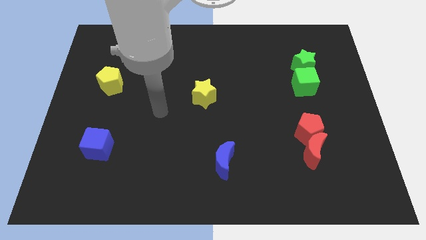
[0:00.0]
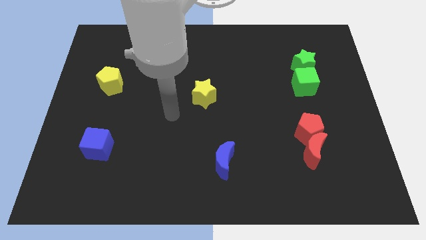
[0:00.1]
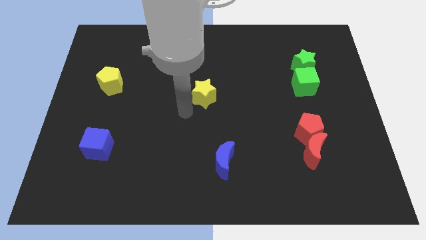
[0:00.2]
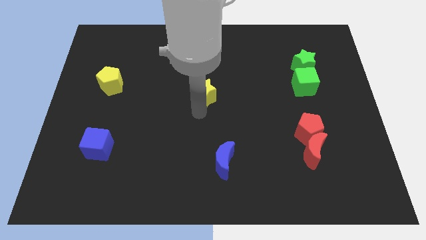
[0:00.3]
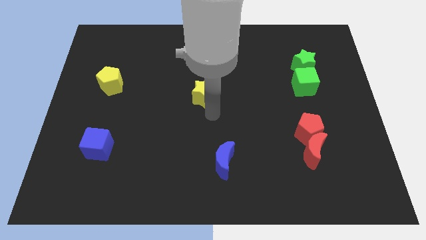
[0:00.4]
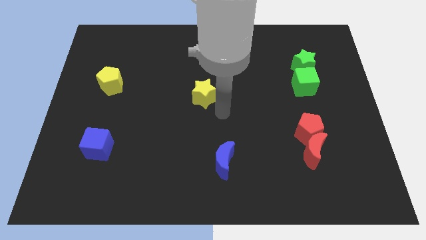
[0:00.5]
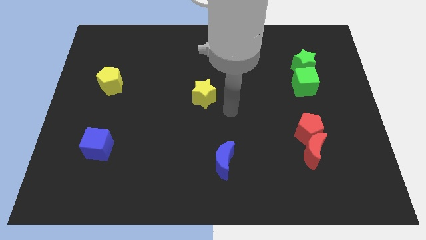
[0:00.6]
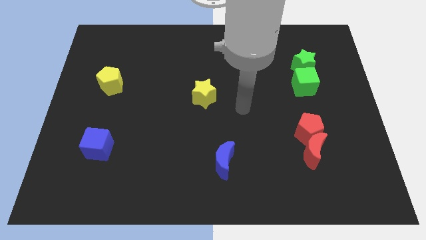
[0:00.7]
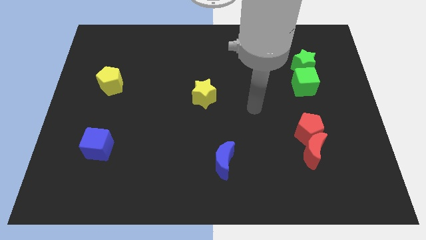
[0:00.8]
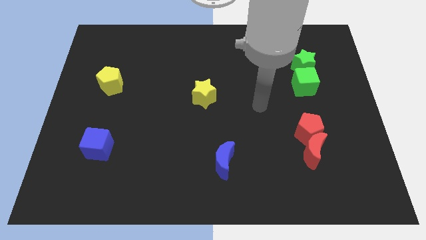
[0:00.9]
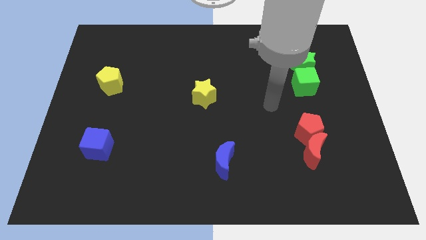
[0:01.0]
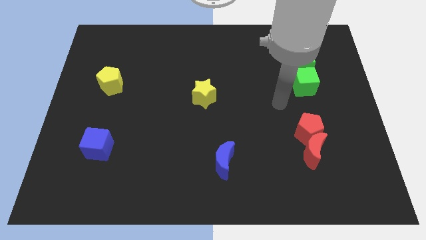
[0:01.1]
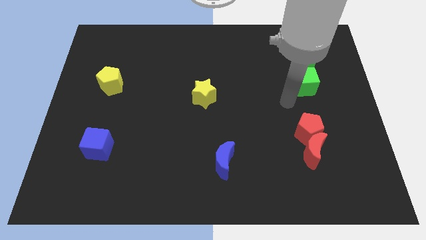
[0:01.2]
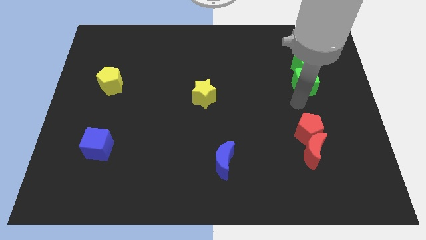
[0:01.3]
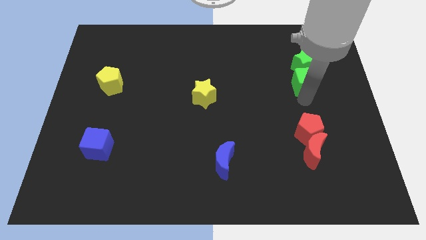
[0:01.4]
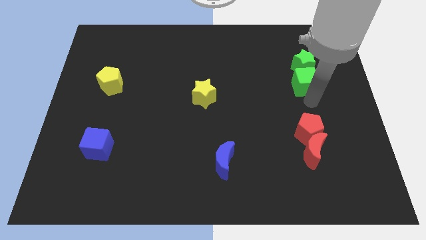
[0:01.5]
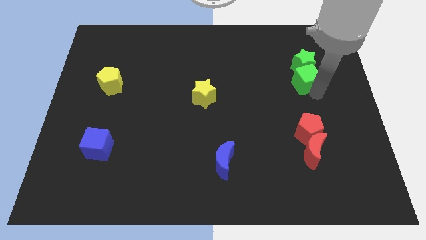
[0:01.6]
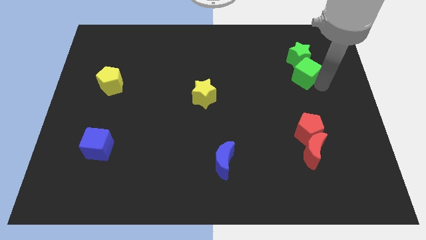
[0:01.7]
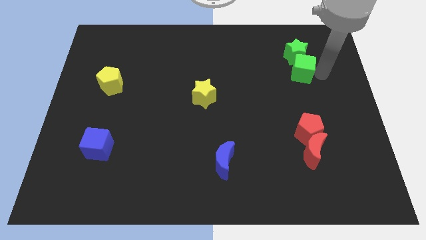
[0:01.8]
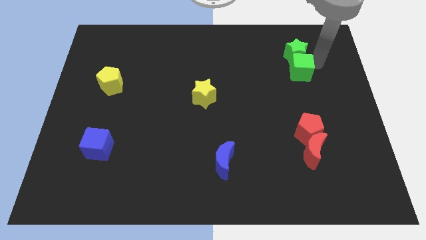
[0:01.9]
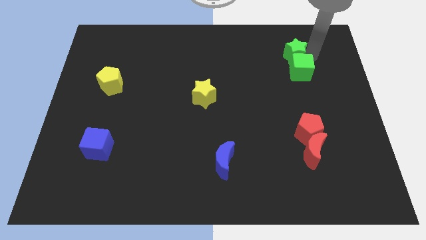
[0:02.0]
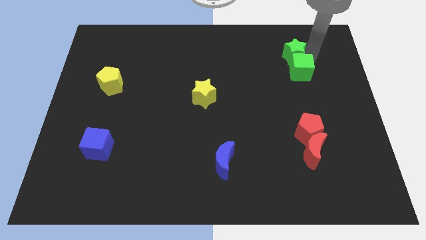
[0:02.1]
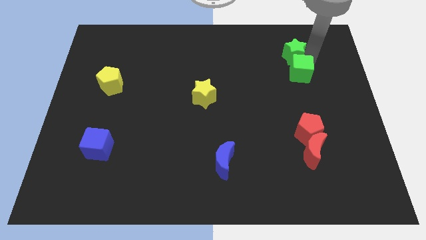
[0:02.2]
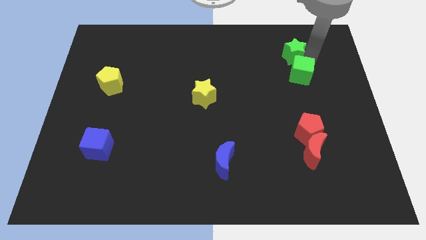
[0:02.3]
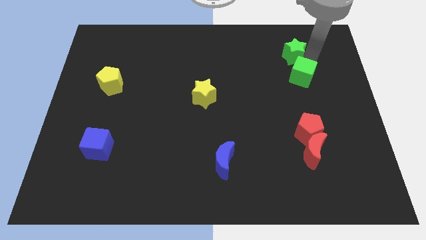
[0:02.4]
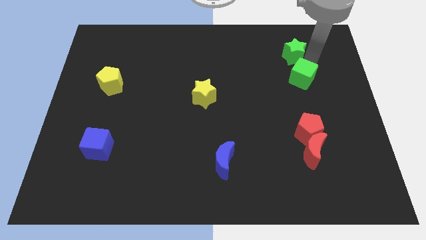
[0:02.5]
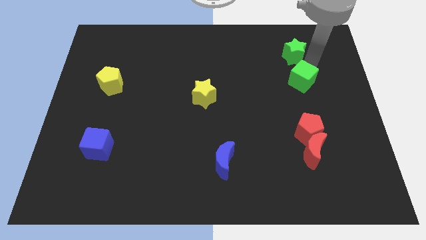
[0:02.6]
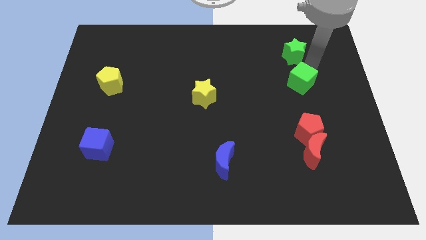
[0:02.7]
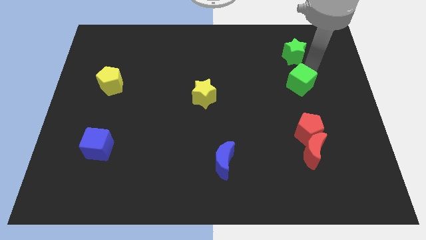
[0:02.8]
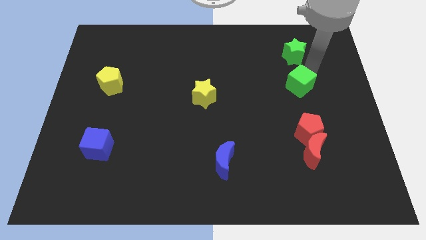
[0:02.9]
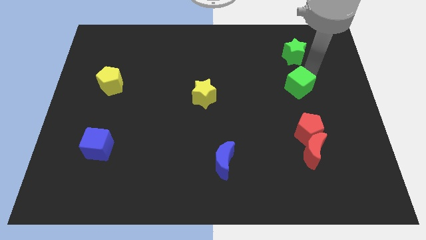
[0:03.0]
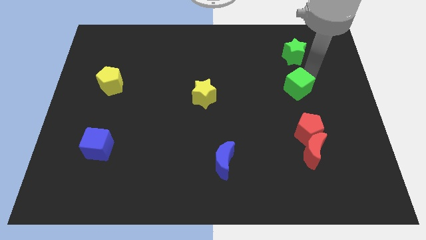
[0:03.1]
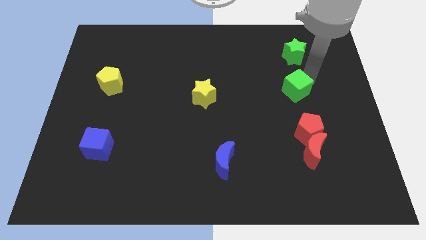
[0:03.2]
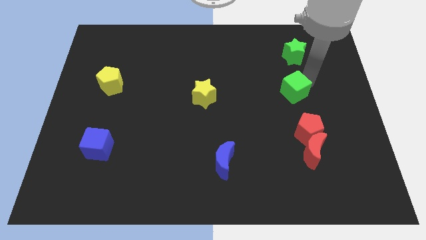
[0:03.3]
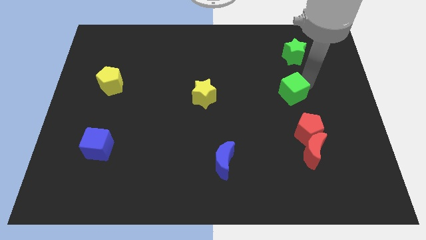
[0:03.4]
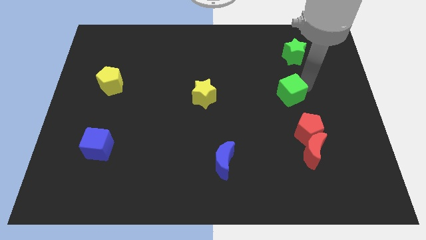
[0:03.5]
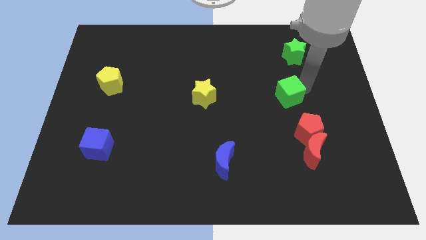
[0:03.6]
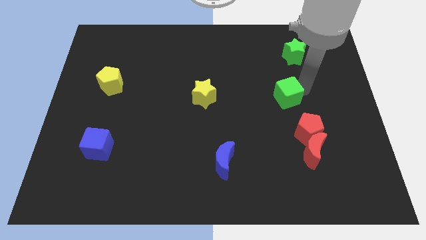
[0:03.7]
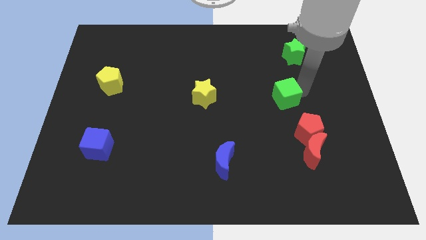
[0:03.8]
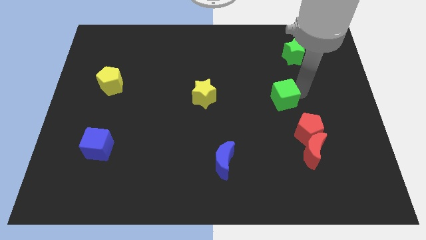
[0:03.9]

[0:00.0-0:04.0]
move the green cube somewhat downwards and left

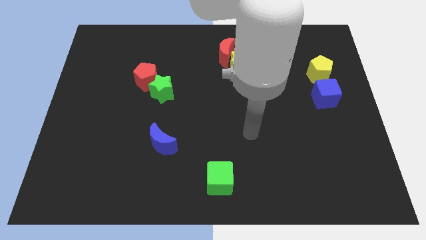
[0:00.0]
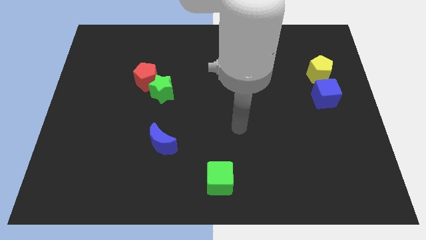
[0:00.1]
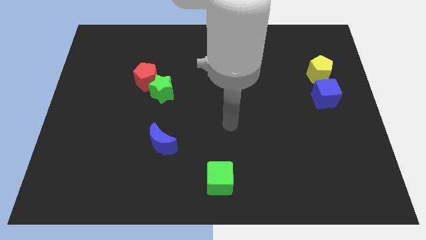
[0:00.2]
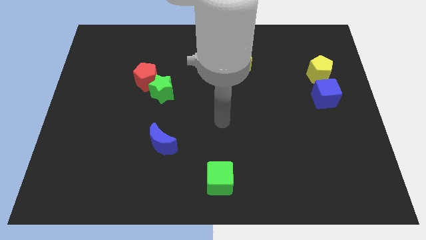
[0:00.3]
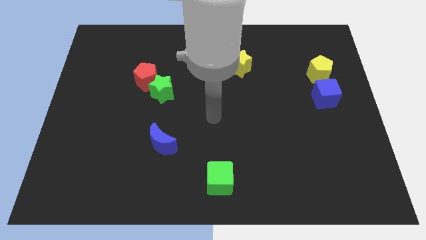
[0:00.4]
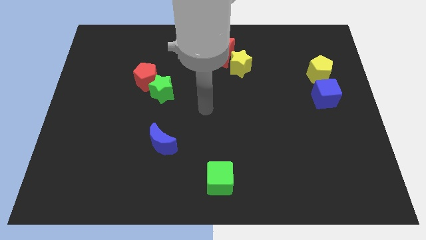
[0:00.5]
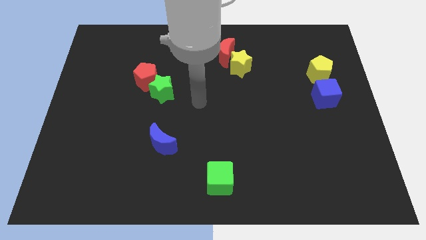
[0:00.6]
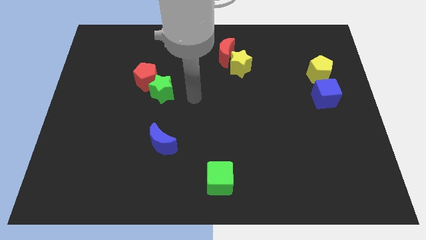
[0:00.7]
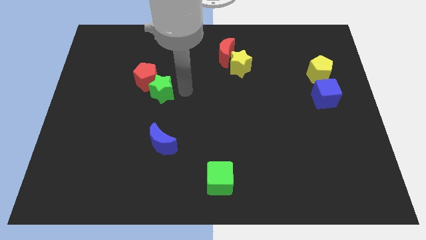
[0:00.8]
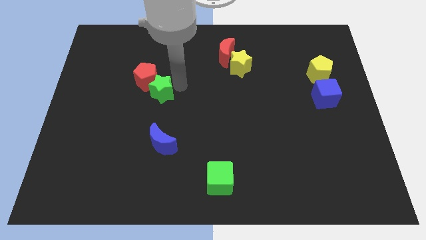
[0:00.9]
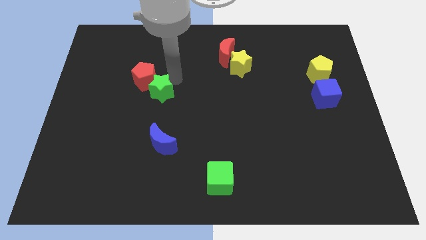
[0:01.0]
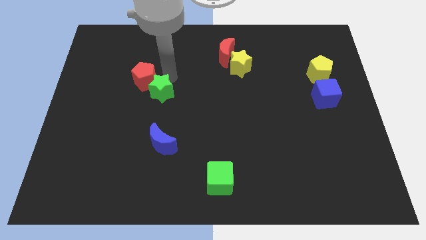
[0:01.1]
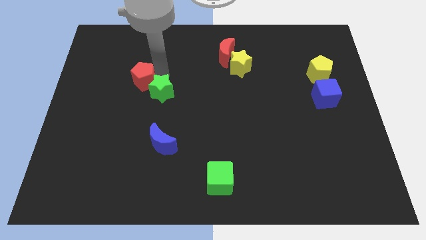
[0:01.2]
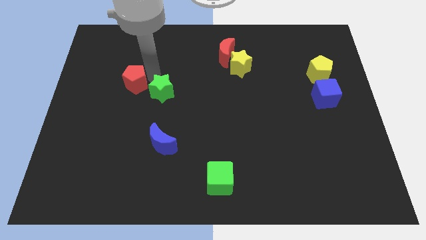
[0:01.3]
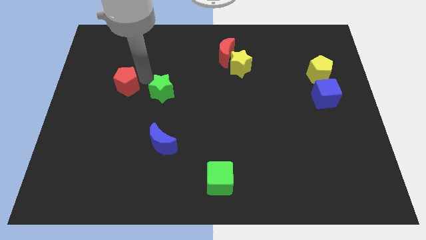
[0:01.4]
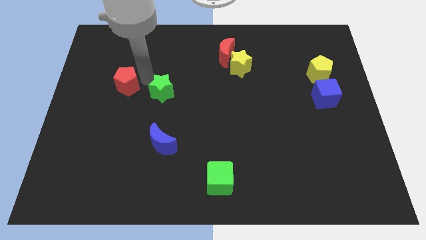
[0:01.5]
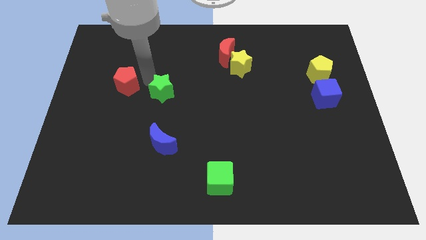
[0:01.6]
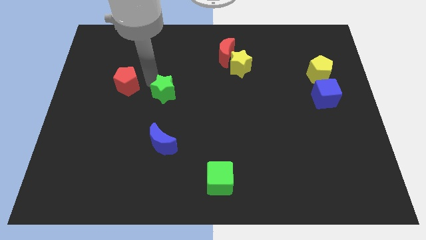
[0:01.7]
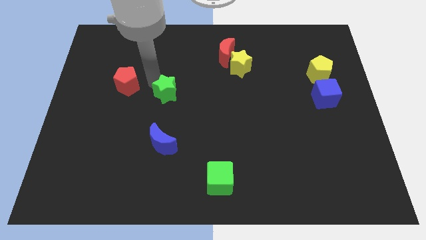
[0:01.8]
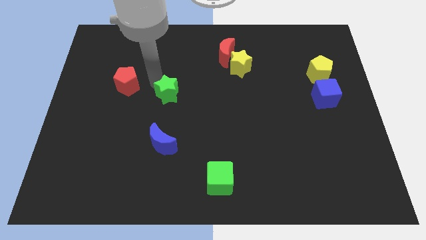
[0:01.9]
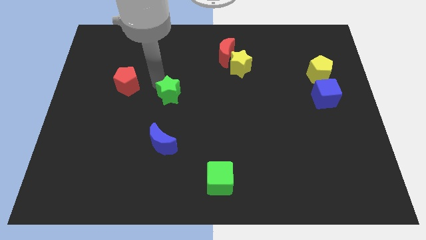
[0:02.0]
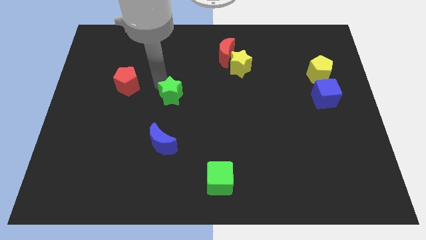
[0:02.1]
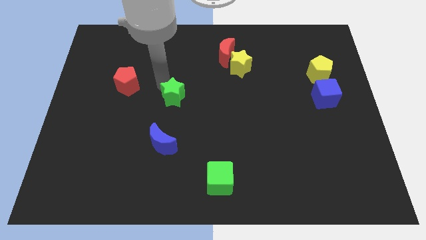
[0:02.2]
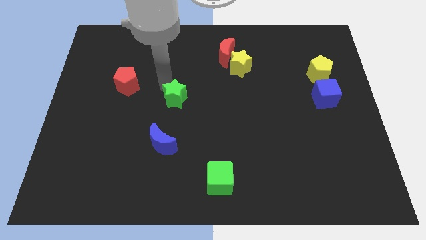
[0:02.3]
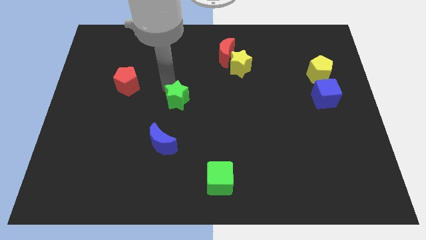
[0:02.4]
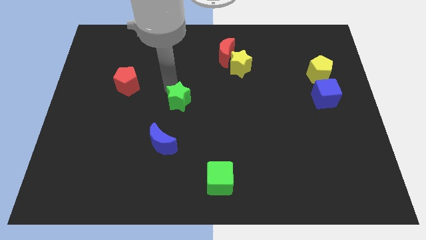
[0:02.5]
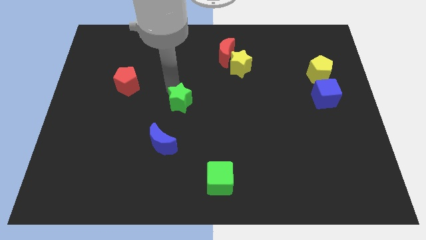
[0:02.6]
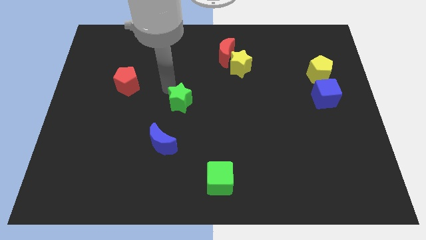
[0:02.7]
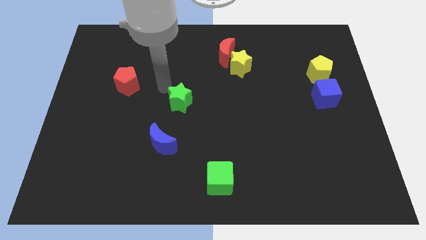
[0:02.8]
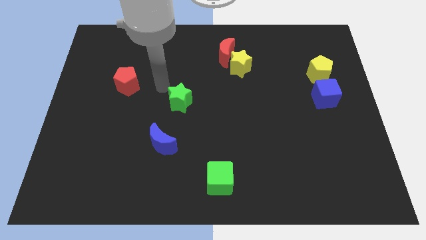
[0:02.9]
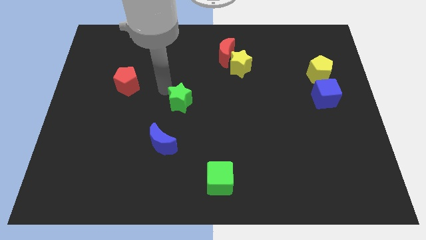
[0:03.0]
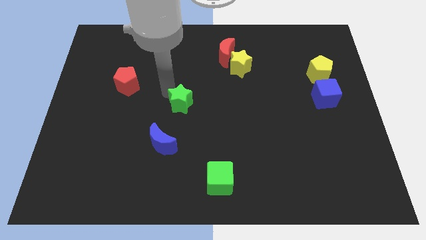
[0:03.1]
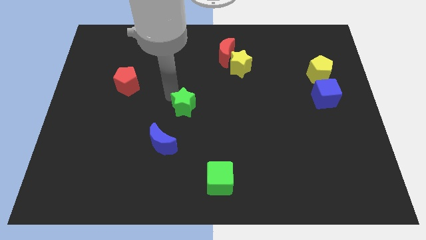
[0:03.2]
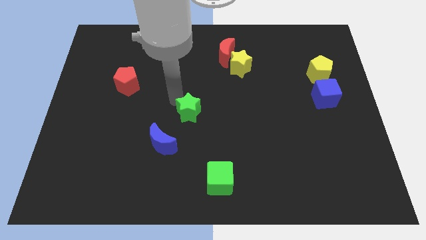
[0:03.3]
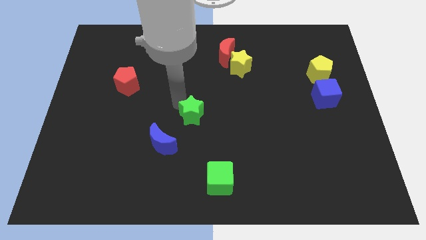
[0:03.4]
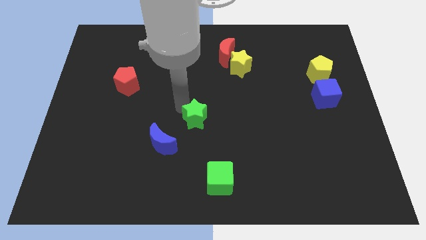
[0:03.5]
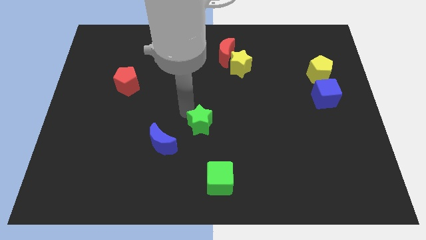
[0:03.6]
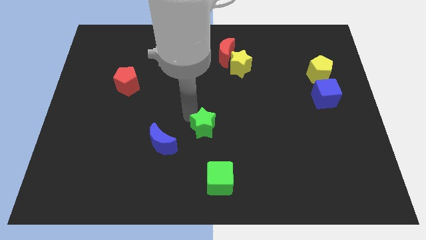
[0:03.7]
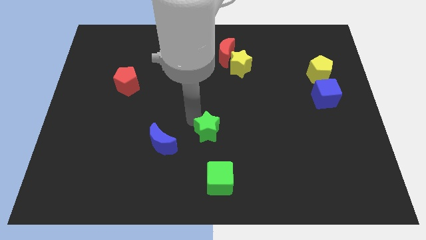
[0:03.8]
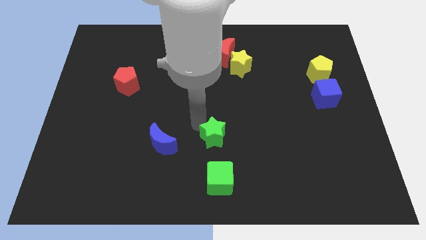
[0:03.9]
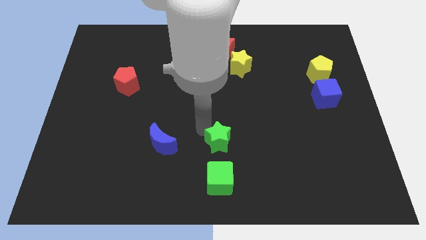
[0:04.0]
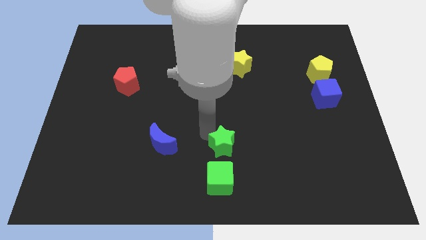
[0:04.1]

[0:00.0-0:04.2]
slide the green star downwards and right

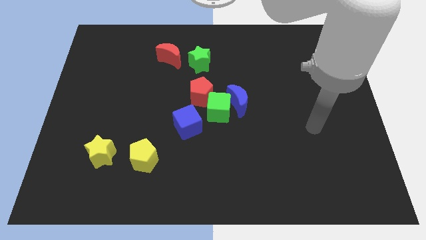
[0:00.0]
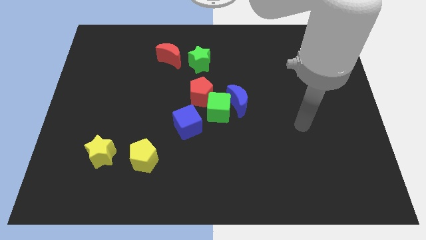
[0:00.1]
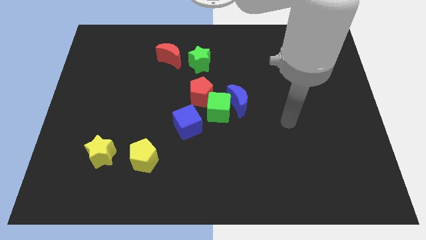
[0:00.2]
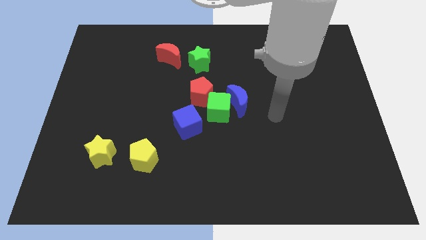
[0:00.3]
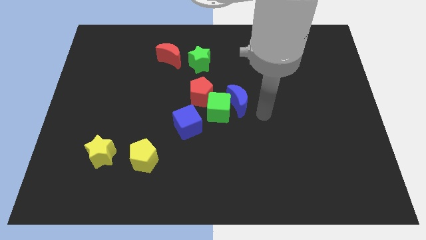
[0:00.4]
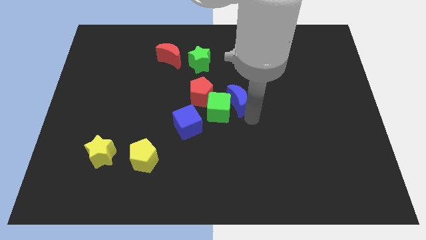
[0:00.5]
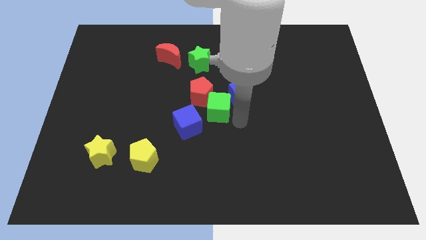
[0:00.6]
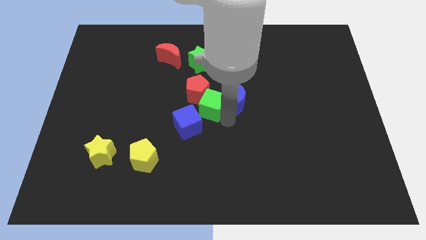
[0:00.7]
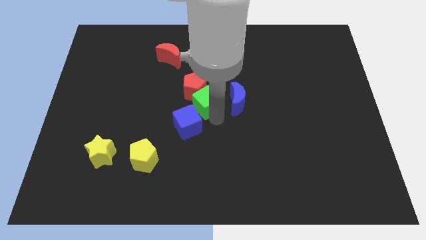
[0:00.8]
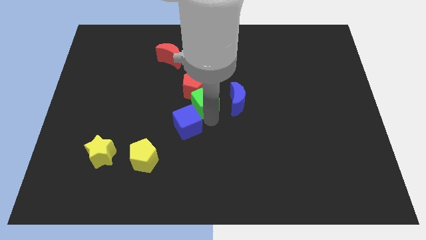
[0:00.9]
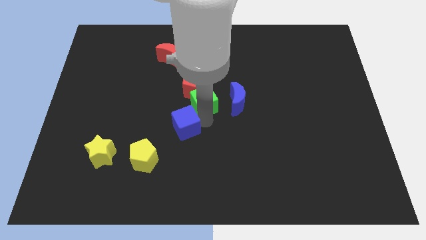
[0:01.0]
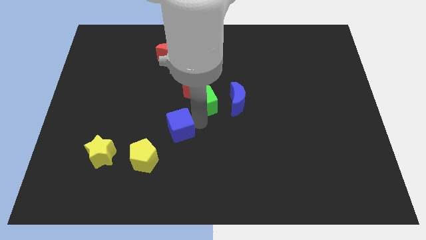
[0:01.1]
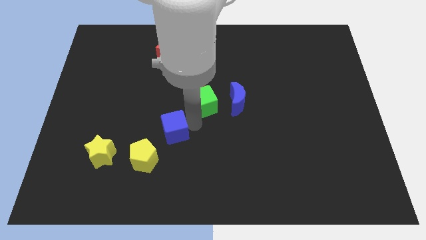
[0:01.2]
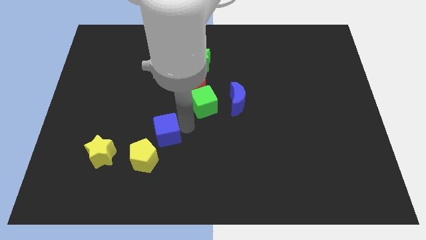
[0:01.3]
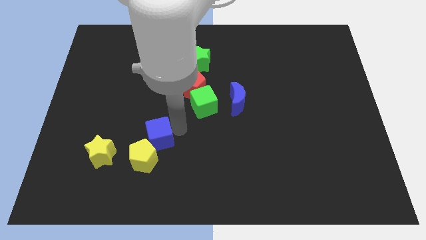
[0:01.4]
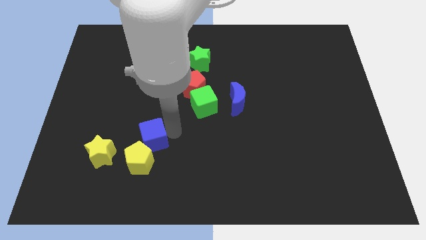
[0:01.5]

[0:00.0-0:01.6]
slightly move the blue cube down and then left
